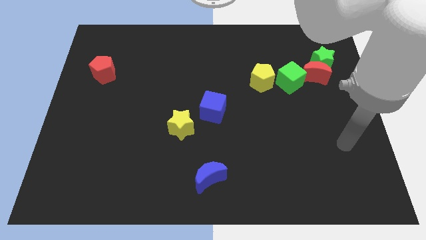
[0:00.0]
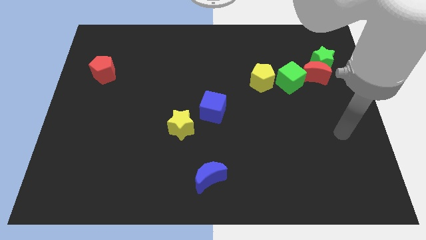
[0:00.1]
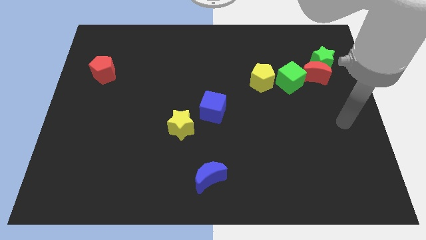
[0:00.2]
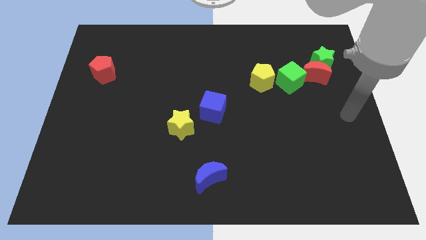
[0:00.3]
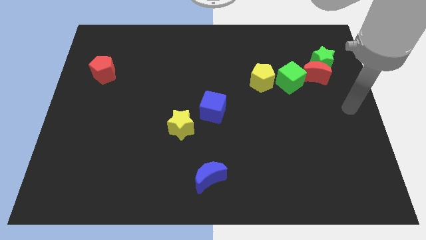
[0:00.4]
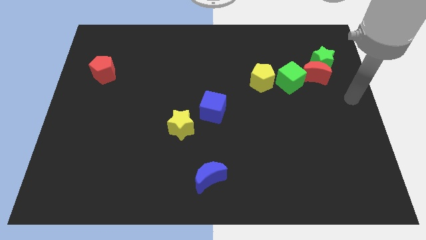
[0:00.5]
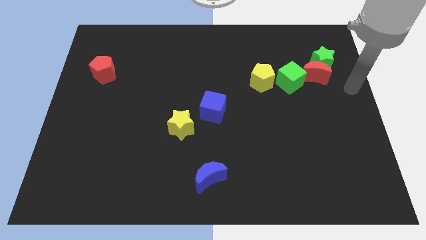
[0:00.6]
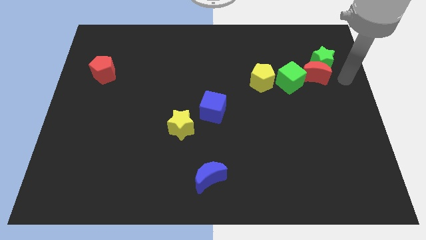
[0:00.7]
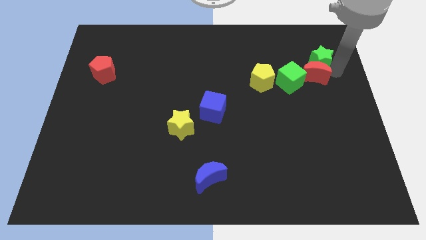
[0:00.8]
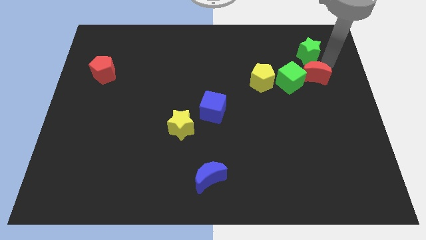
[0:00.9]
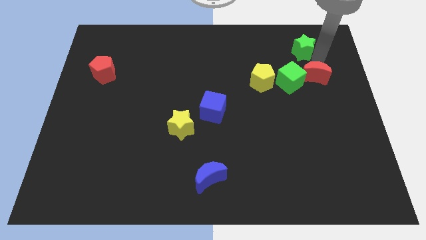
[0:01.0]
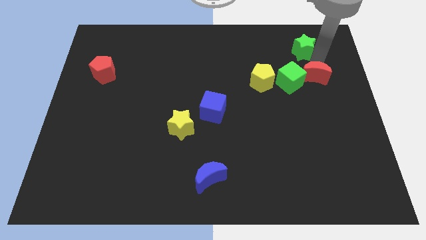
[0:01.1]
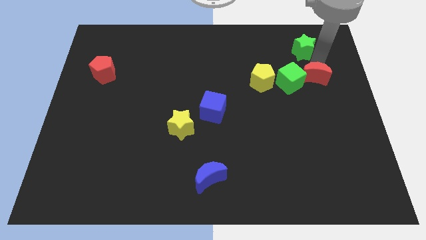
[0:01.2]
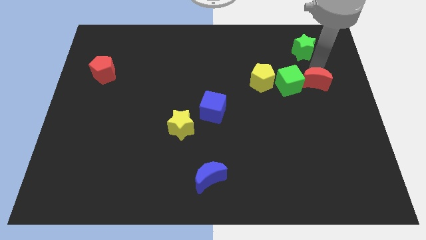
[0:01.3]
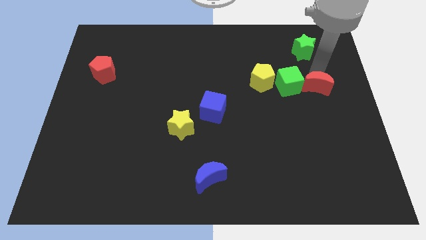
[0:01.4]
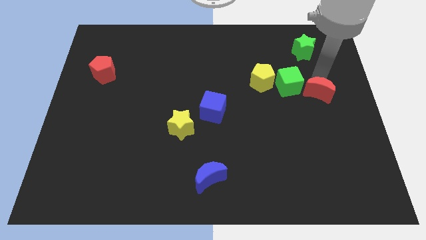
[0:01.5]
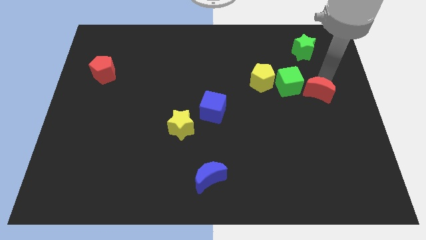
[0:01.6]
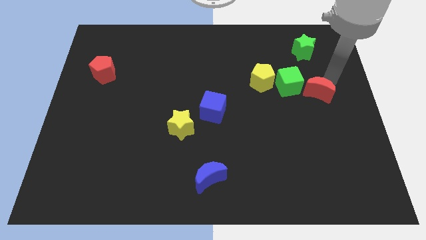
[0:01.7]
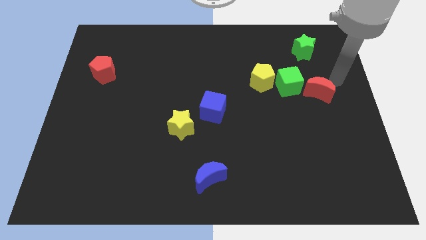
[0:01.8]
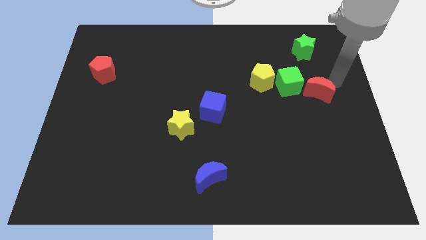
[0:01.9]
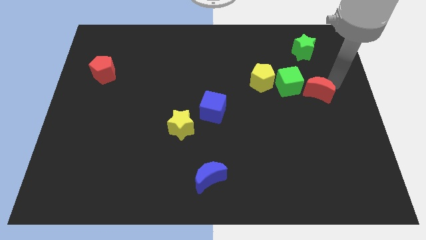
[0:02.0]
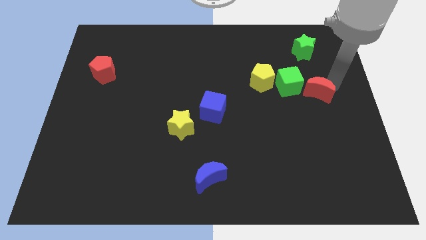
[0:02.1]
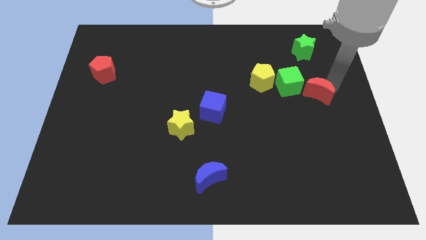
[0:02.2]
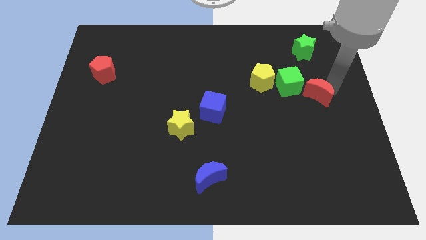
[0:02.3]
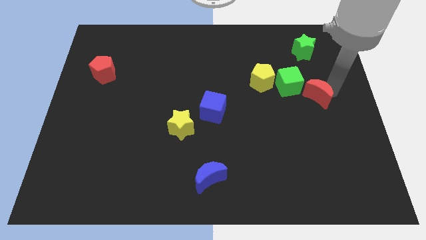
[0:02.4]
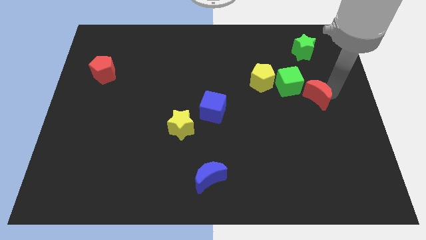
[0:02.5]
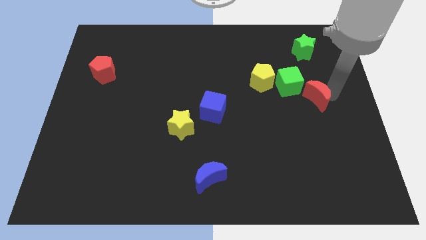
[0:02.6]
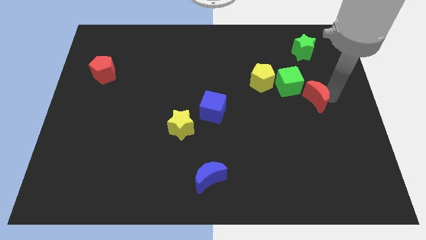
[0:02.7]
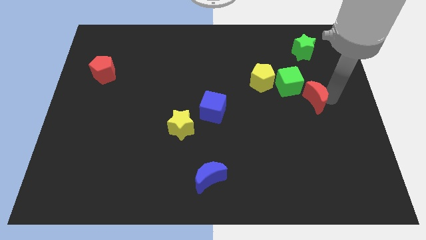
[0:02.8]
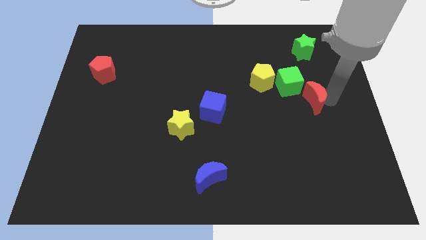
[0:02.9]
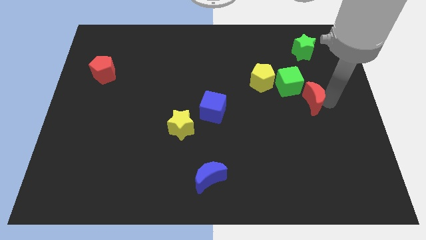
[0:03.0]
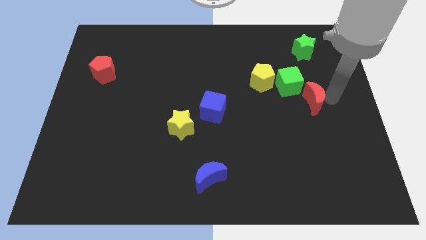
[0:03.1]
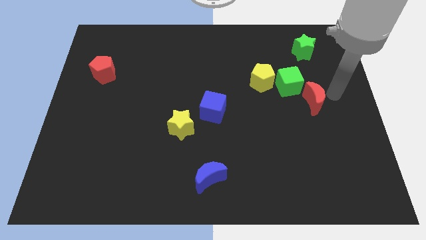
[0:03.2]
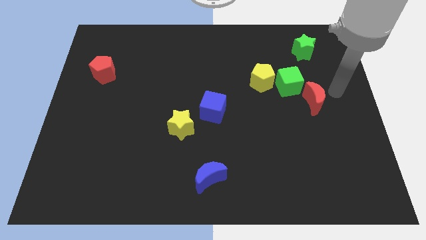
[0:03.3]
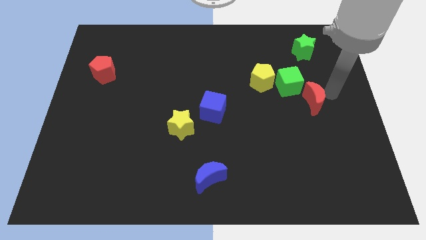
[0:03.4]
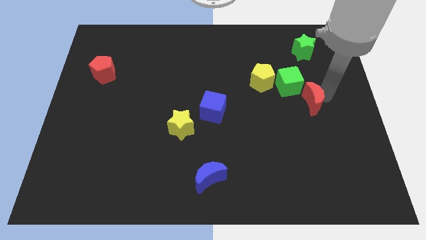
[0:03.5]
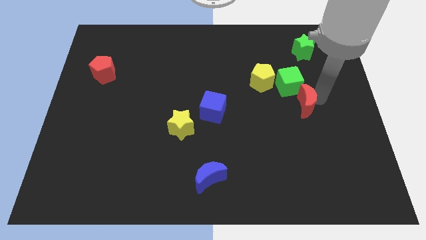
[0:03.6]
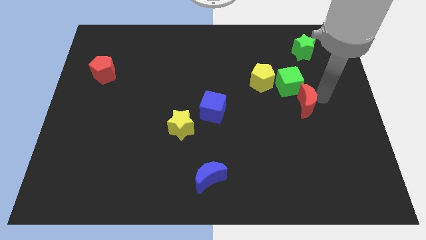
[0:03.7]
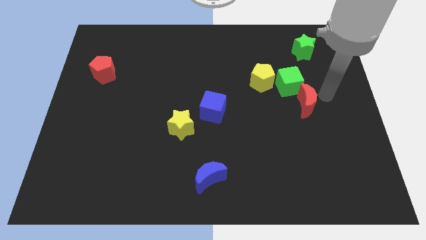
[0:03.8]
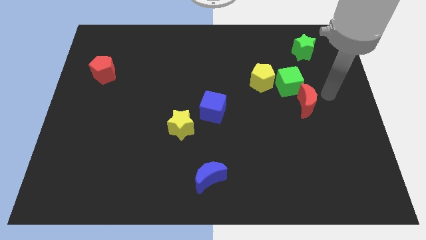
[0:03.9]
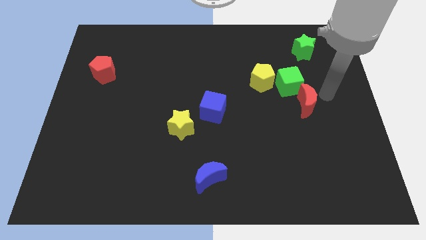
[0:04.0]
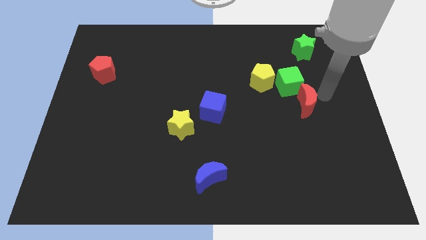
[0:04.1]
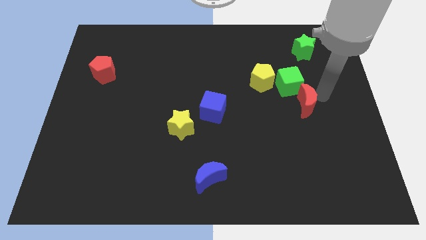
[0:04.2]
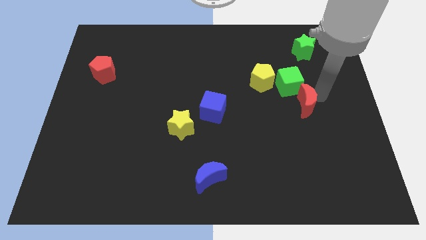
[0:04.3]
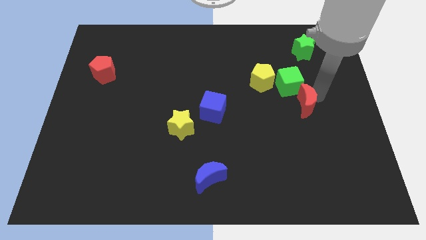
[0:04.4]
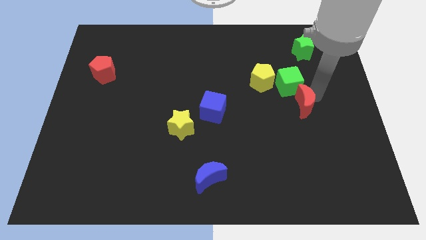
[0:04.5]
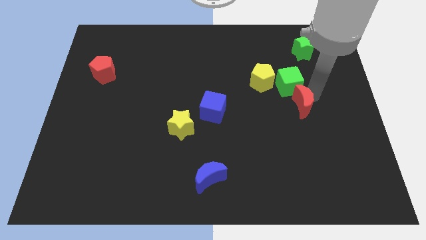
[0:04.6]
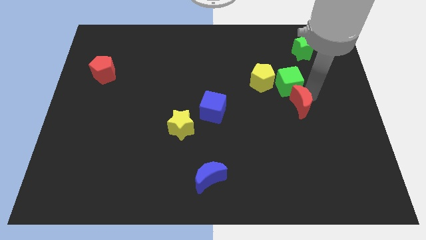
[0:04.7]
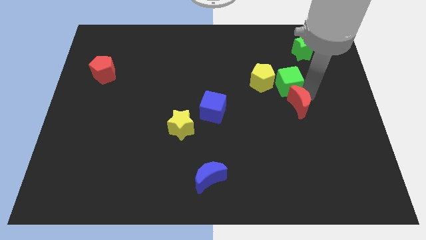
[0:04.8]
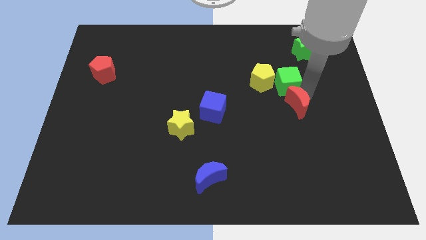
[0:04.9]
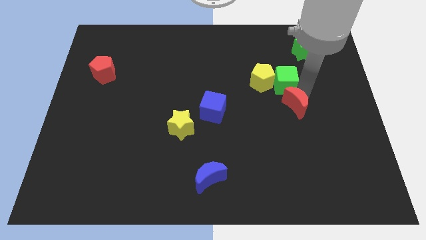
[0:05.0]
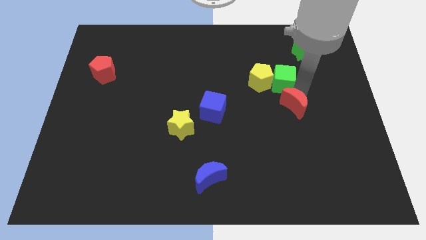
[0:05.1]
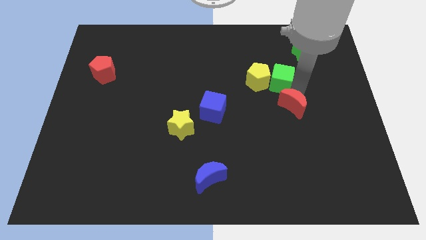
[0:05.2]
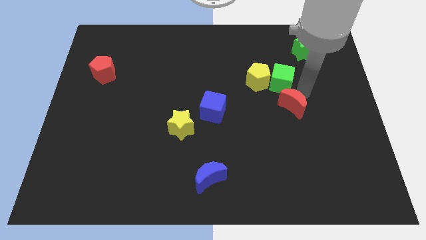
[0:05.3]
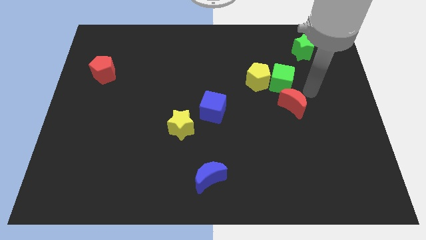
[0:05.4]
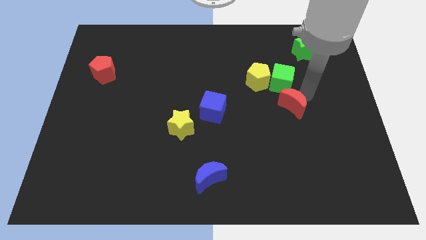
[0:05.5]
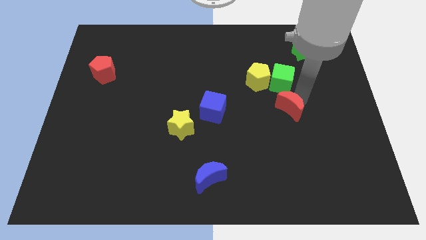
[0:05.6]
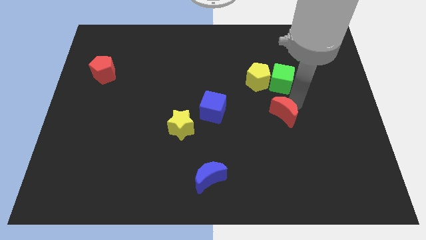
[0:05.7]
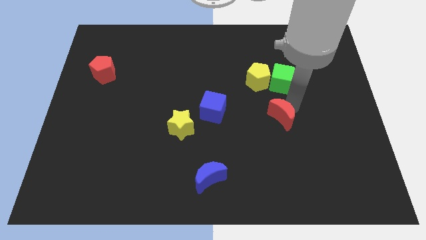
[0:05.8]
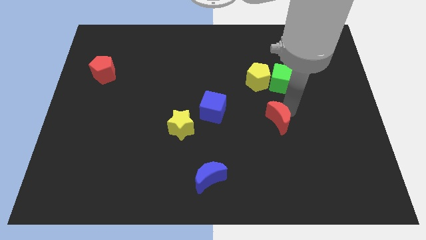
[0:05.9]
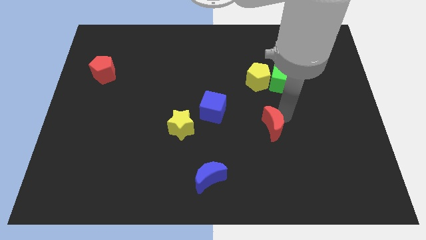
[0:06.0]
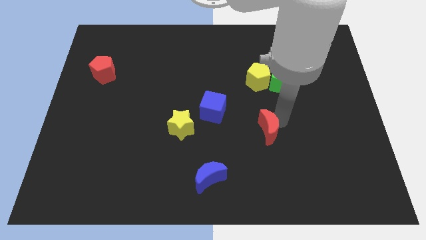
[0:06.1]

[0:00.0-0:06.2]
push the red moon down and then to the left

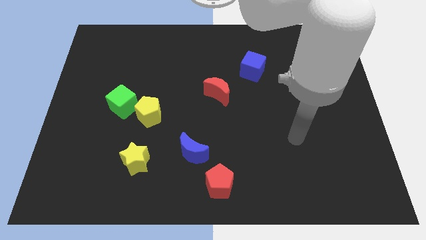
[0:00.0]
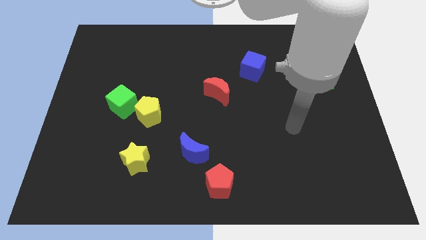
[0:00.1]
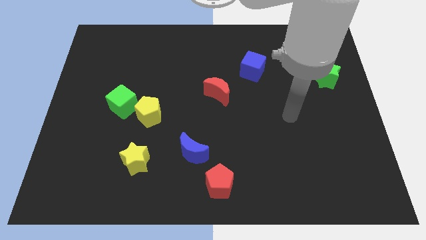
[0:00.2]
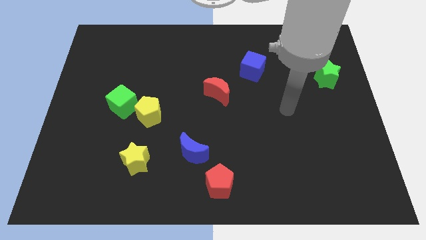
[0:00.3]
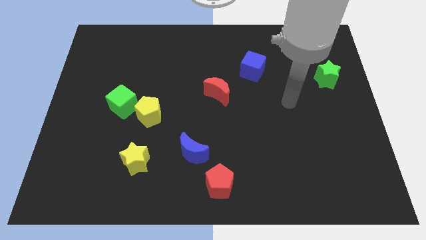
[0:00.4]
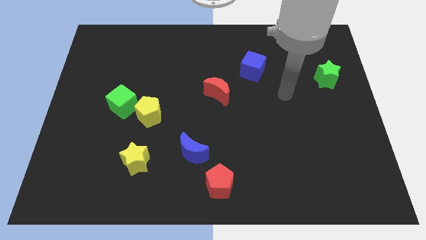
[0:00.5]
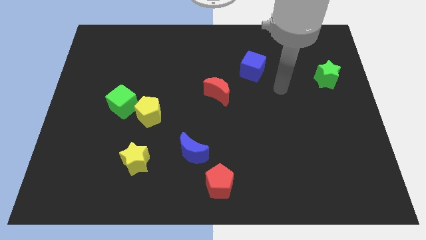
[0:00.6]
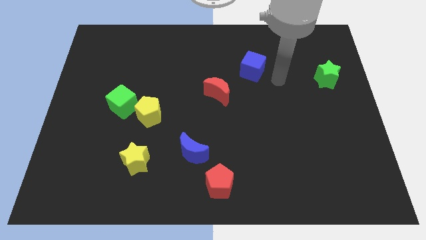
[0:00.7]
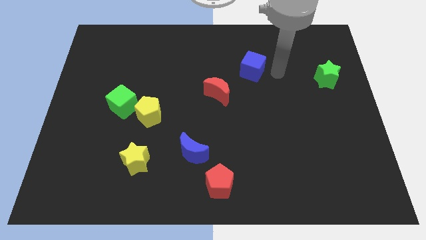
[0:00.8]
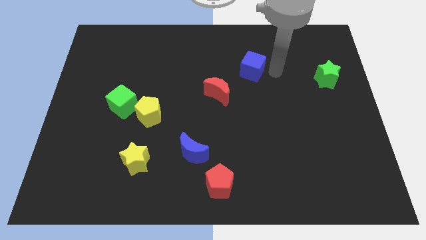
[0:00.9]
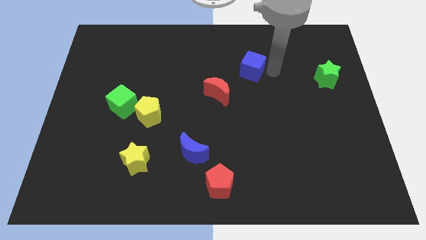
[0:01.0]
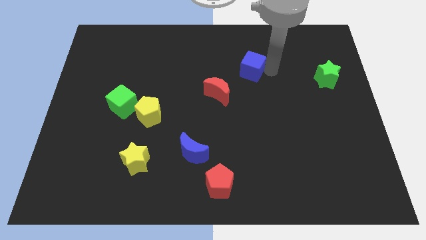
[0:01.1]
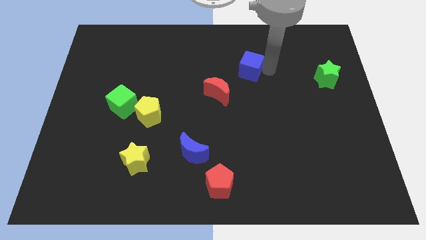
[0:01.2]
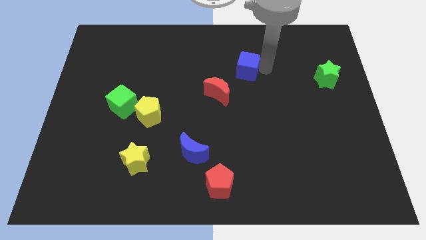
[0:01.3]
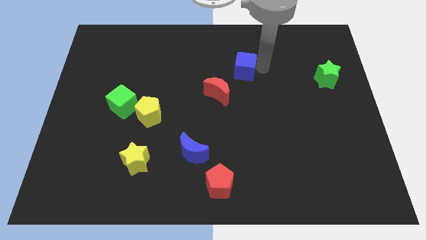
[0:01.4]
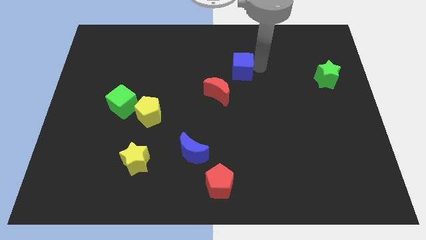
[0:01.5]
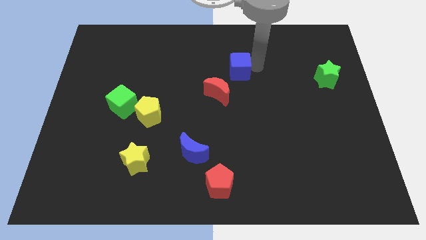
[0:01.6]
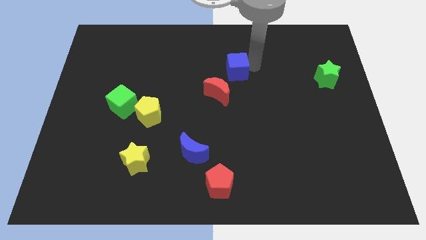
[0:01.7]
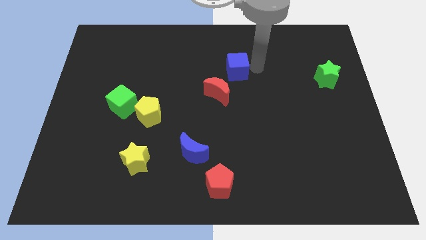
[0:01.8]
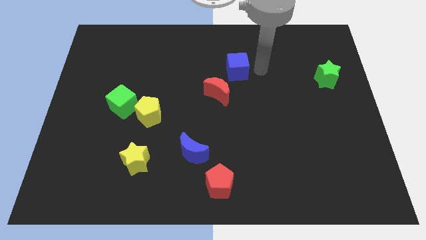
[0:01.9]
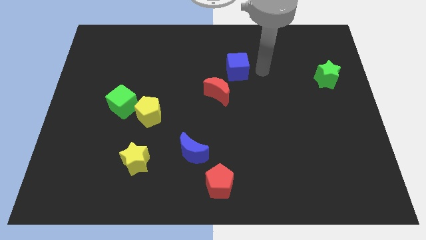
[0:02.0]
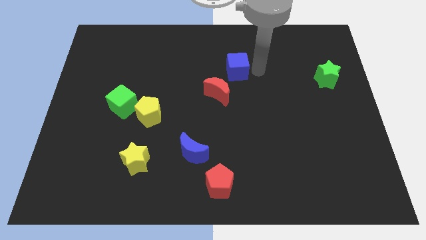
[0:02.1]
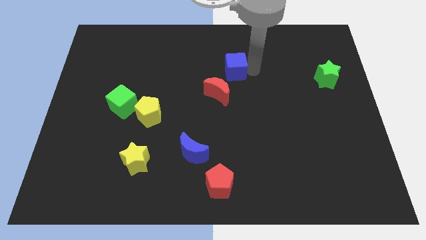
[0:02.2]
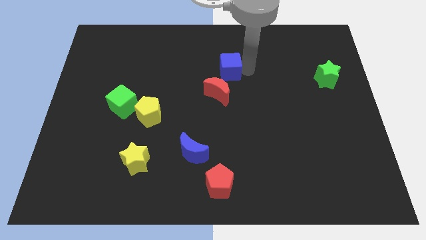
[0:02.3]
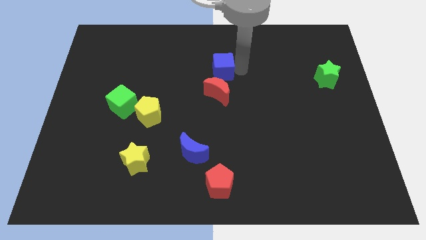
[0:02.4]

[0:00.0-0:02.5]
slightly move the blue cube left
